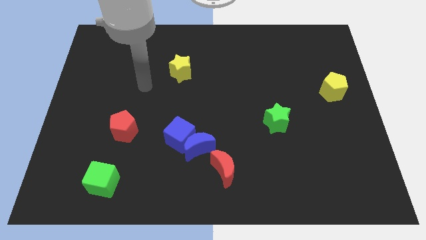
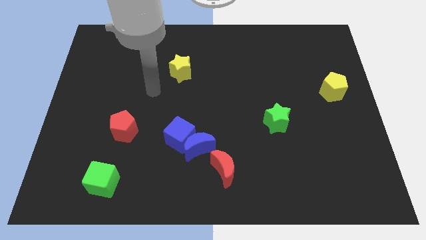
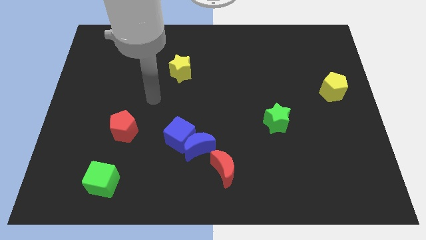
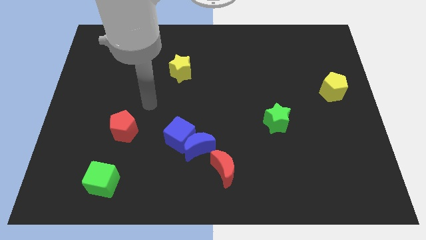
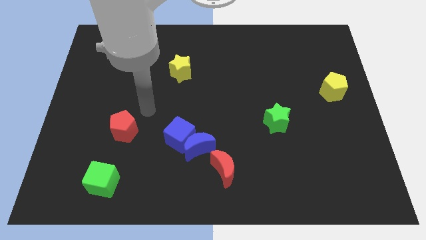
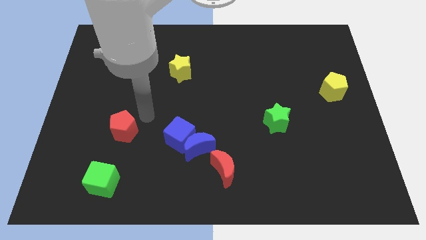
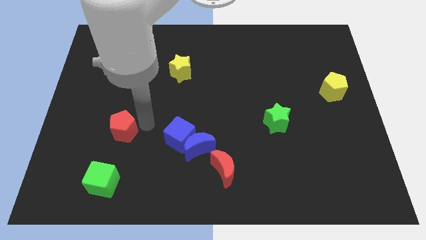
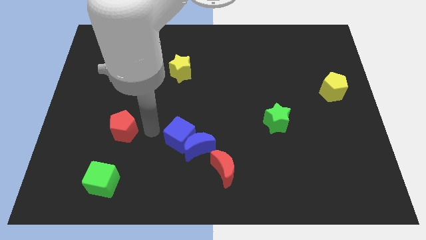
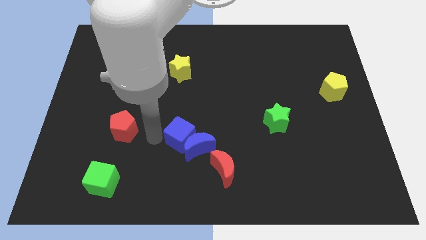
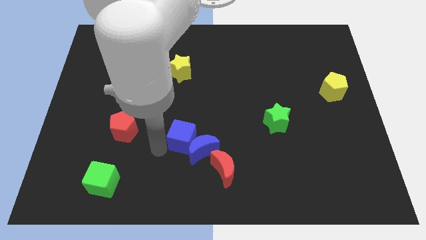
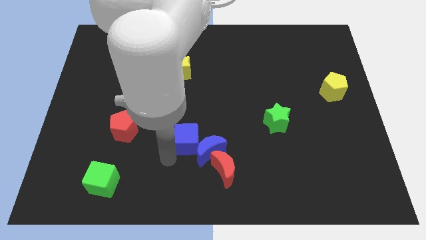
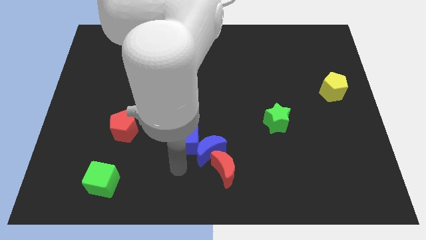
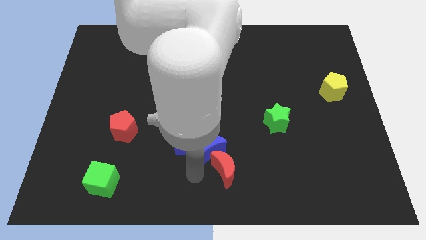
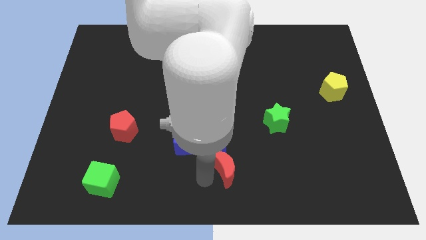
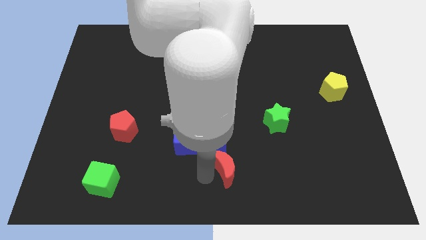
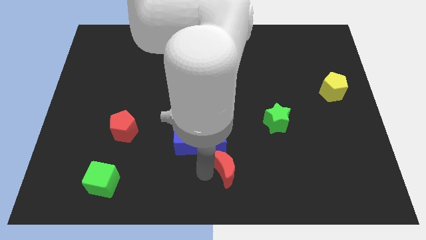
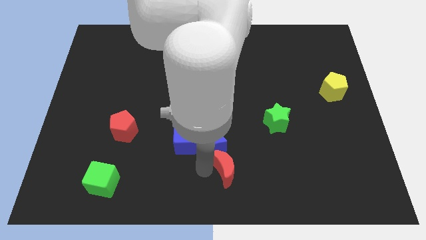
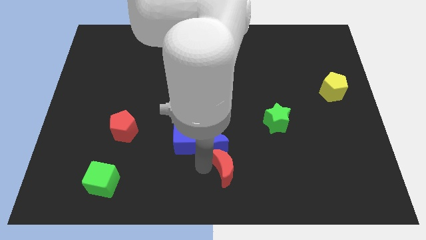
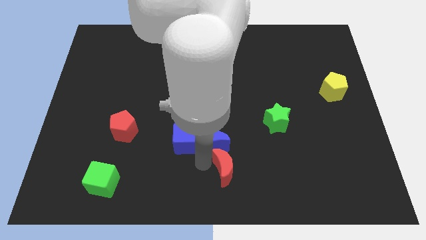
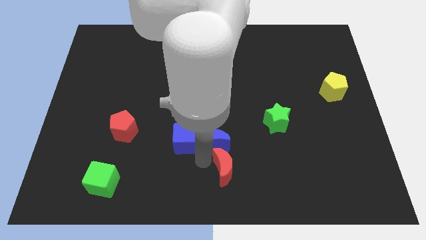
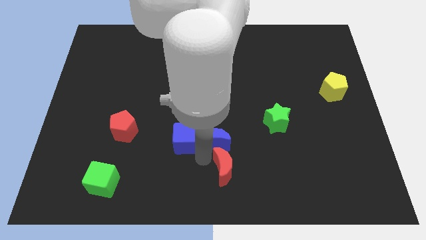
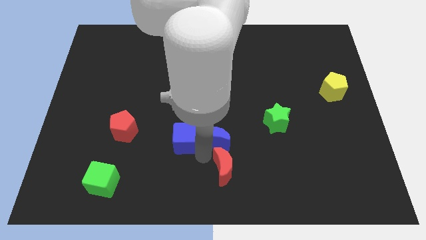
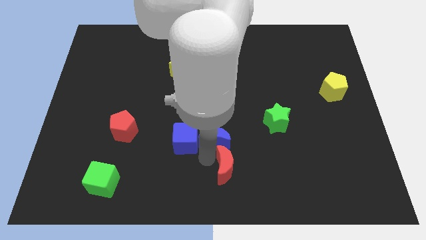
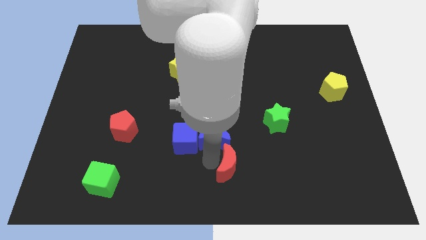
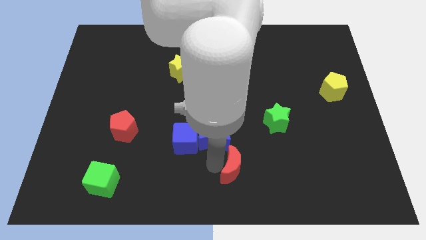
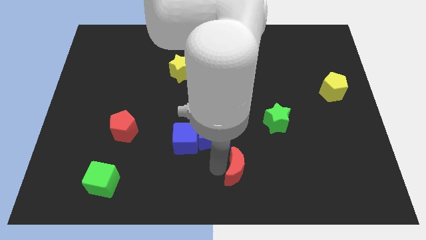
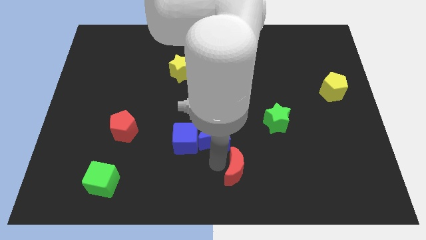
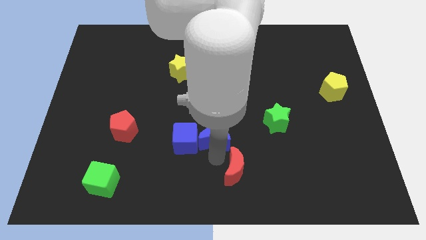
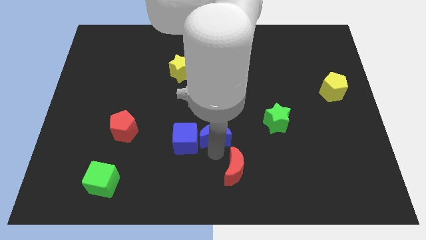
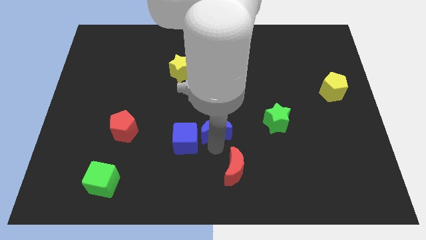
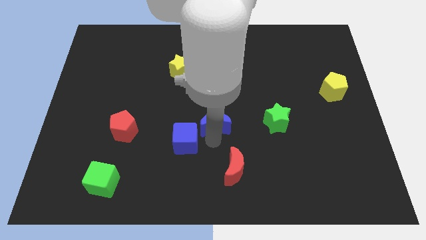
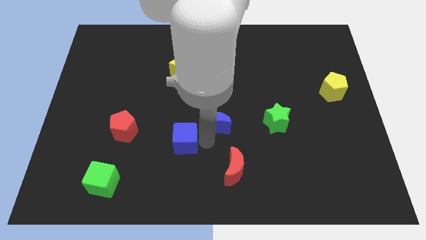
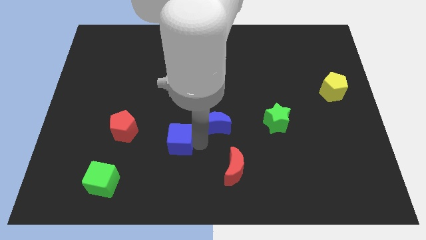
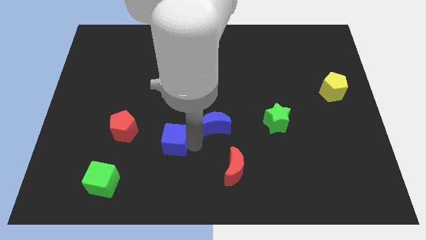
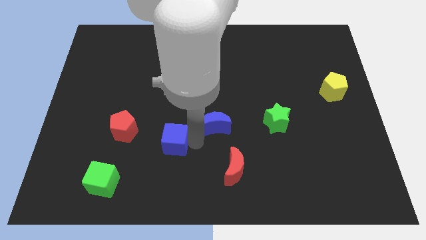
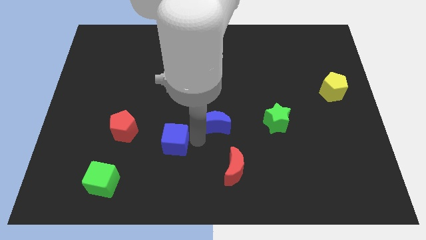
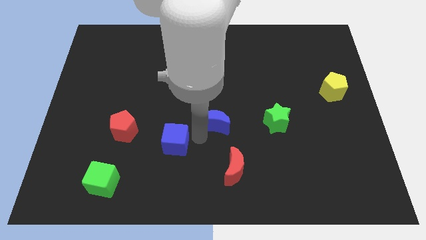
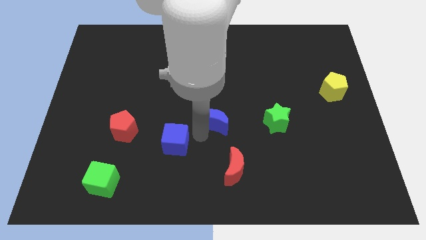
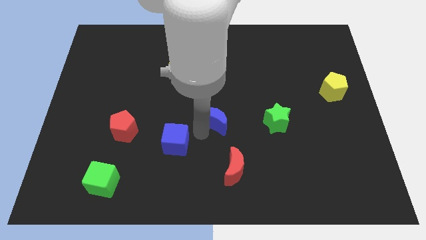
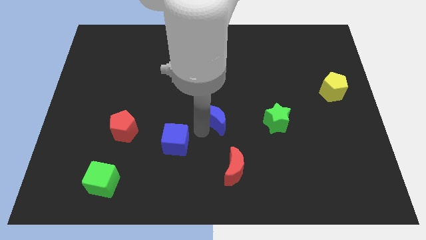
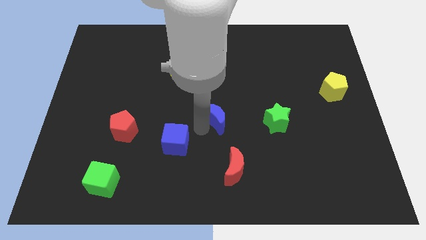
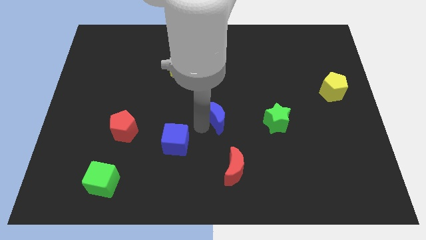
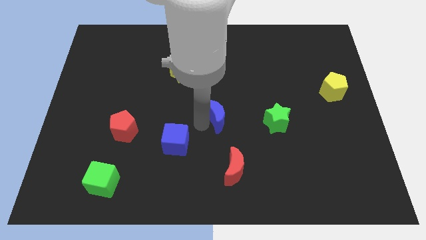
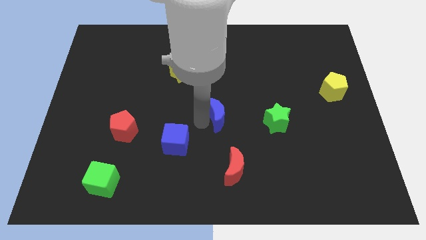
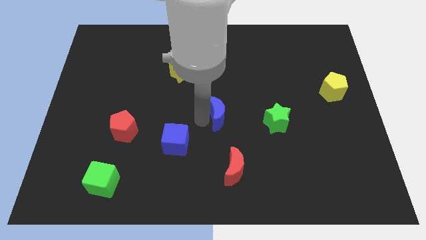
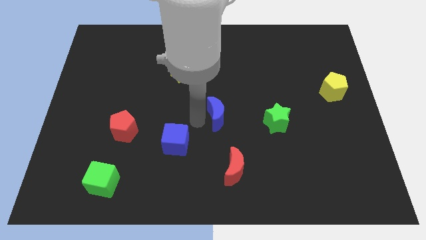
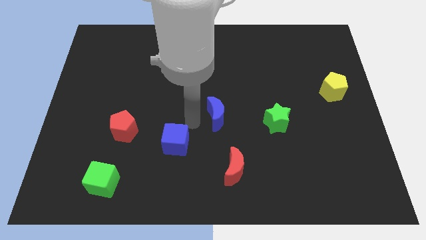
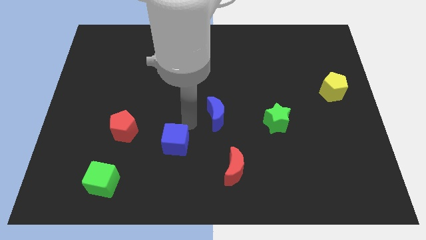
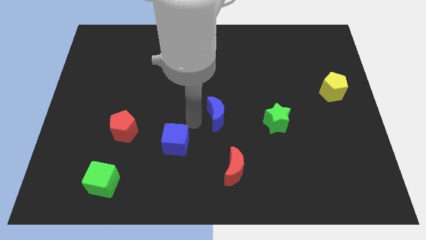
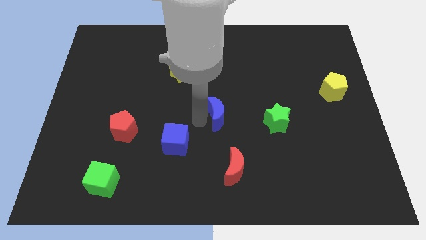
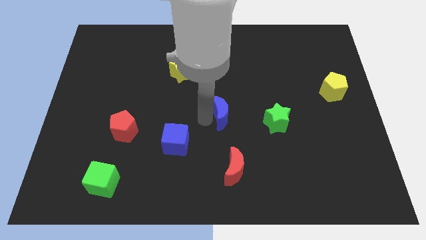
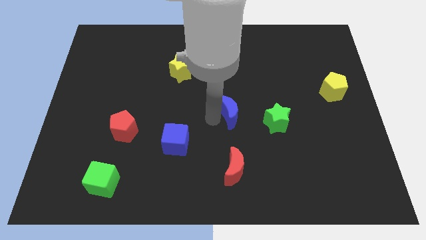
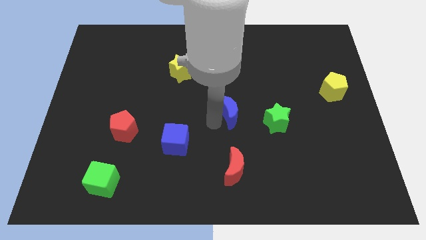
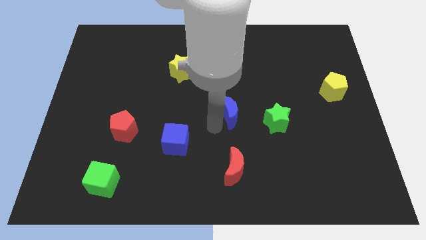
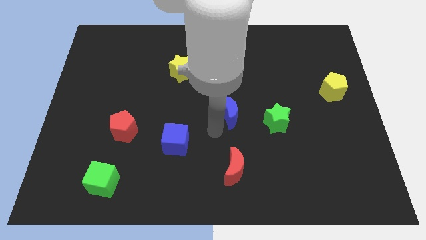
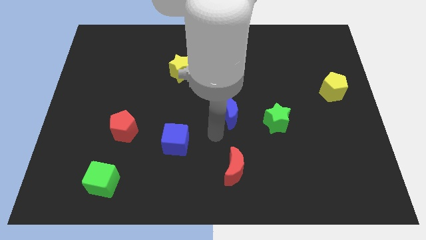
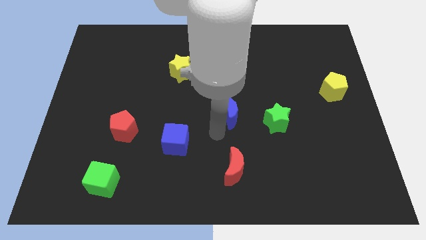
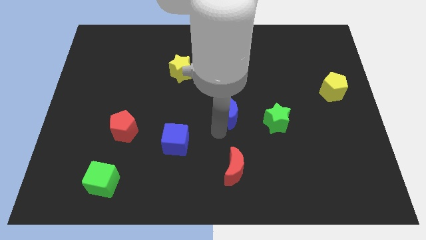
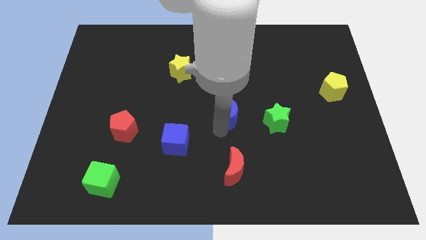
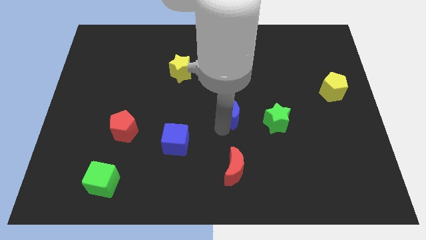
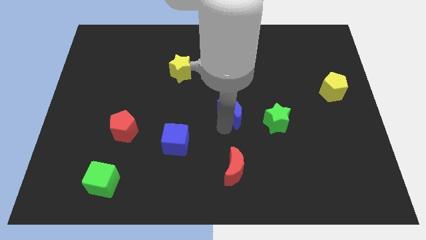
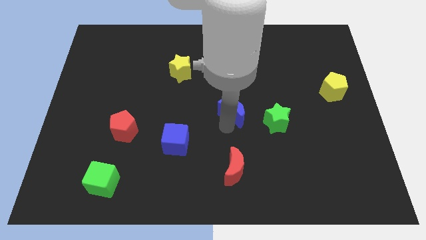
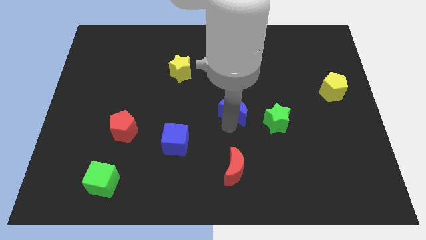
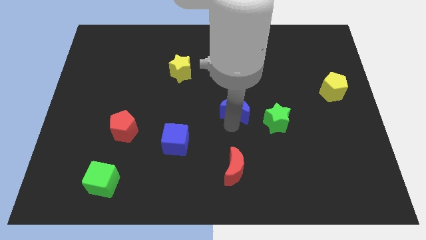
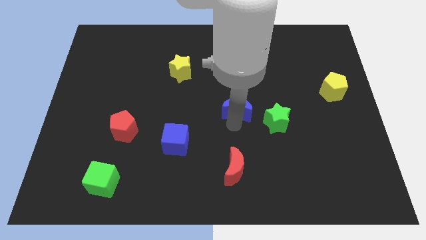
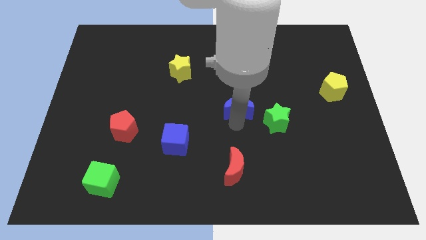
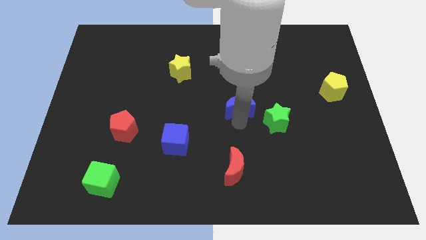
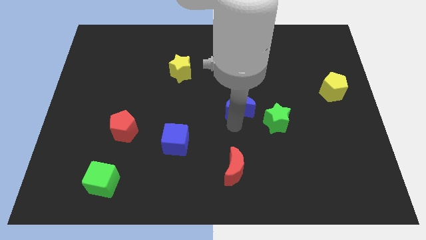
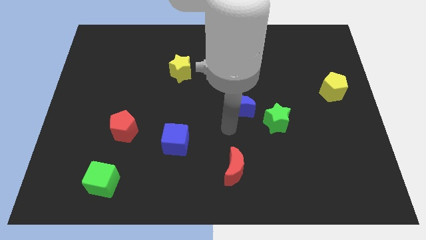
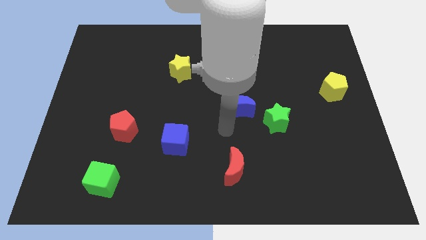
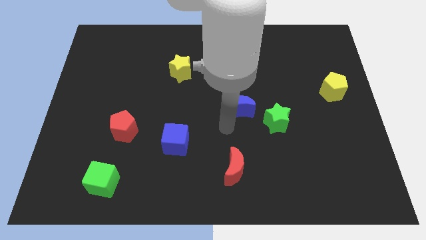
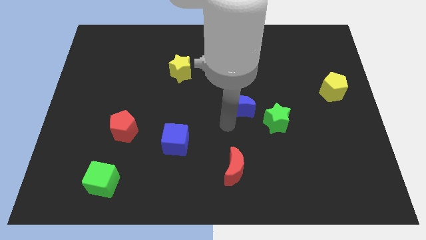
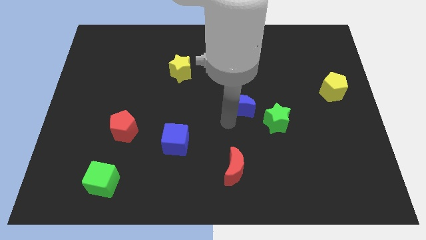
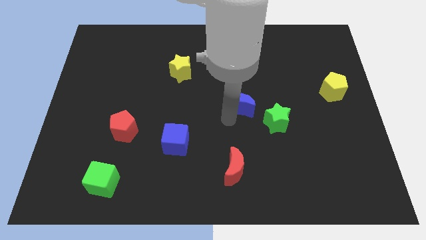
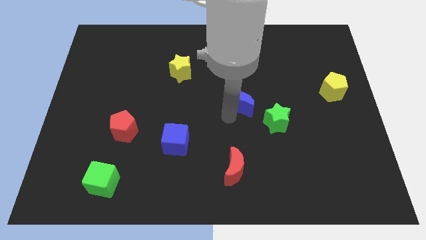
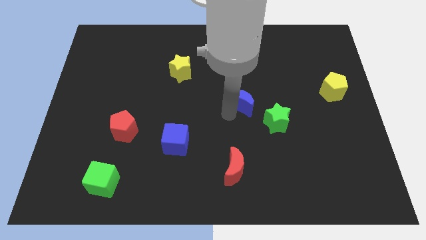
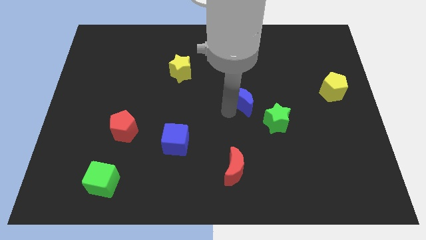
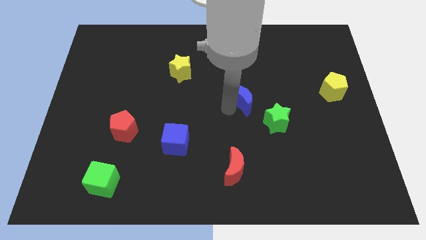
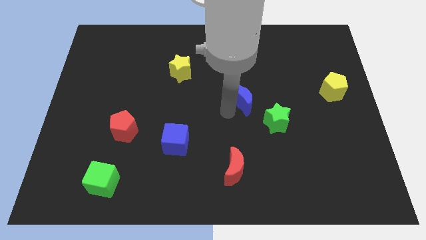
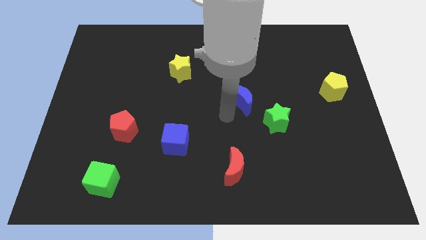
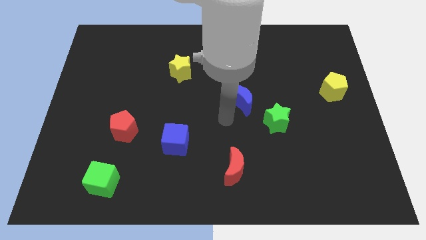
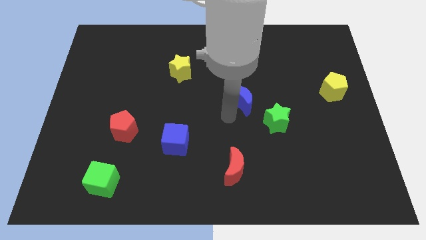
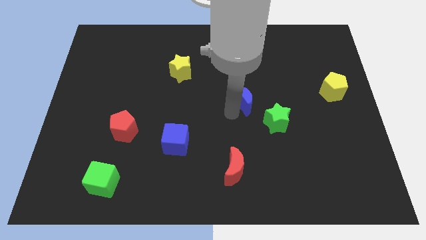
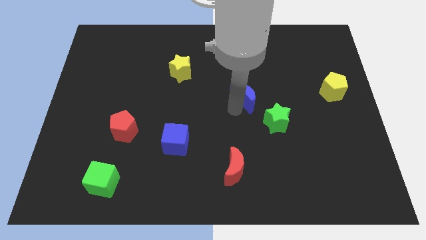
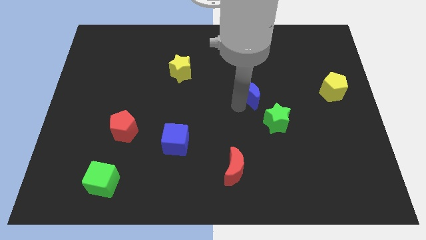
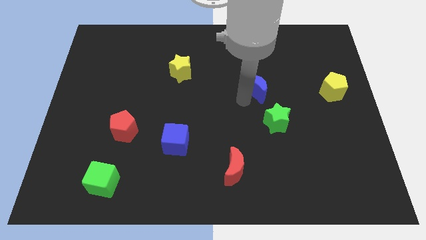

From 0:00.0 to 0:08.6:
move the blue moon upwards and then to the right
